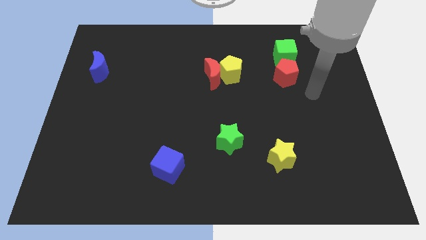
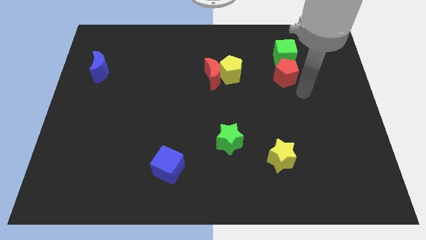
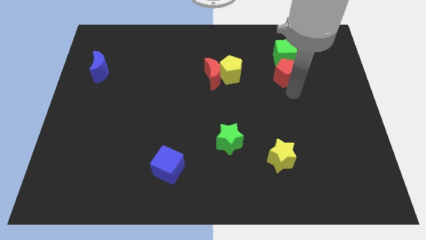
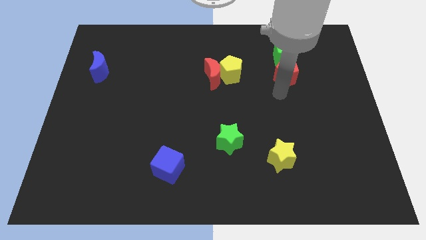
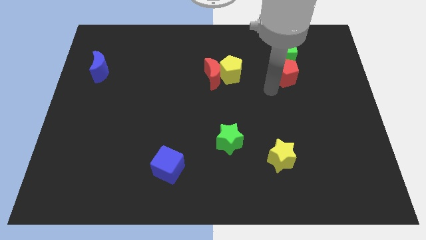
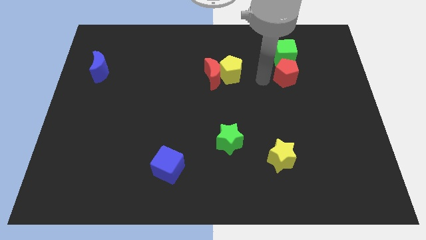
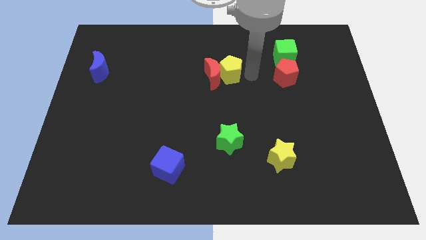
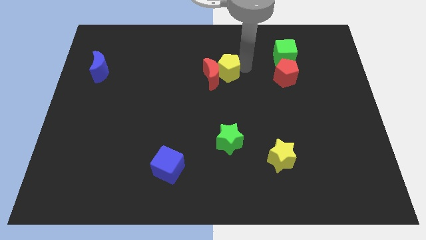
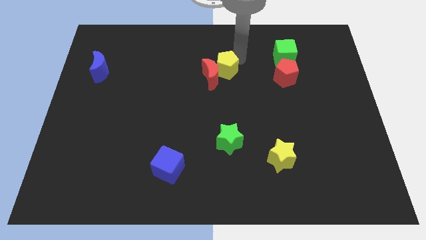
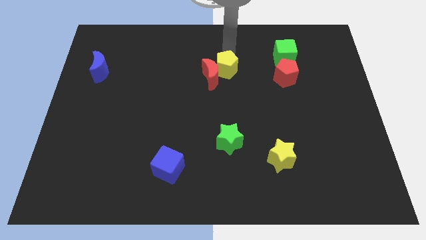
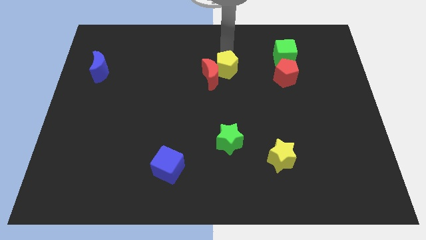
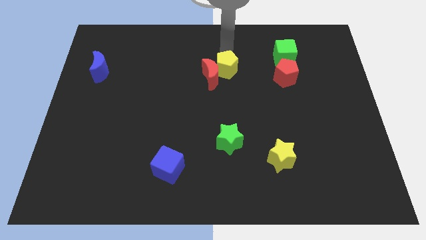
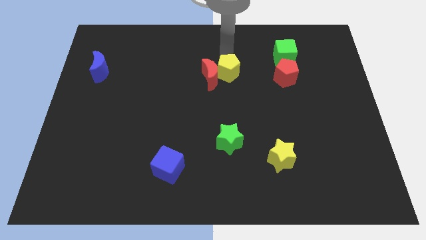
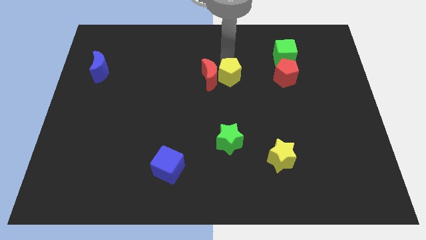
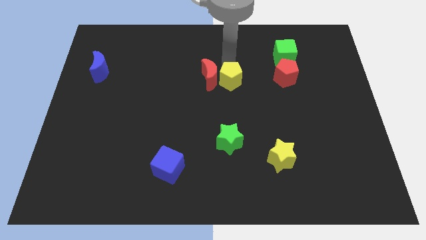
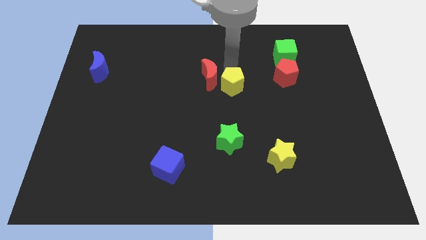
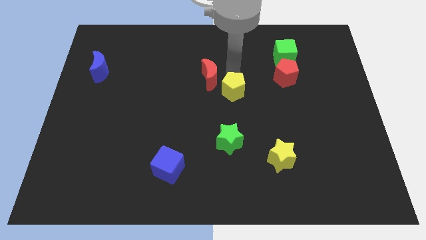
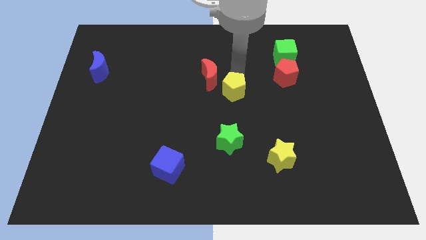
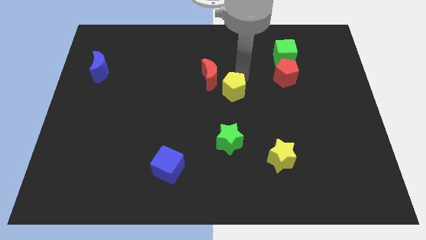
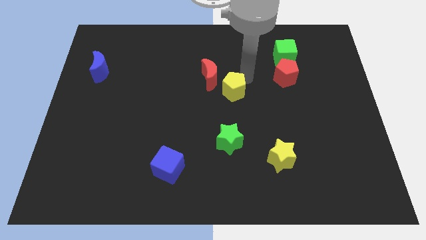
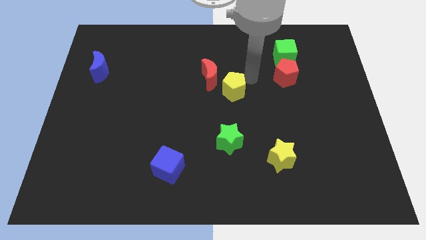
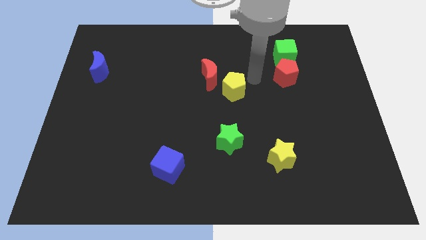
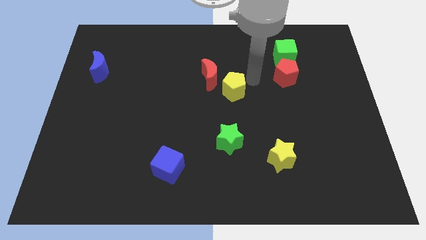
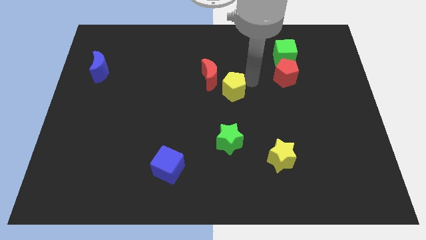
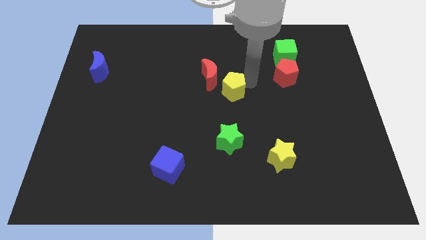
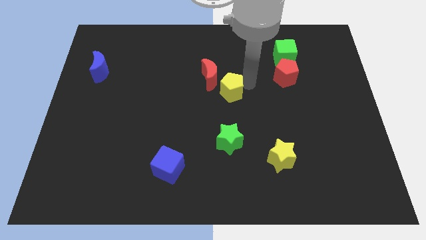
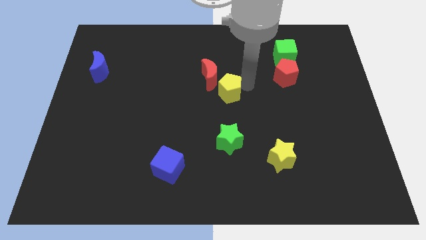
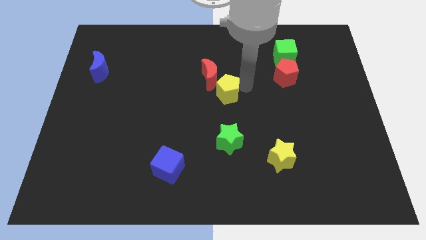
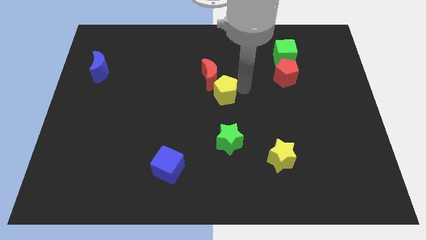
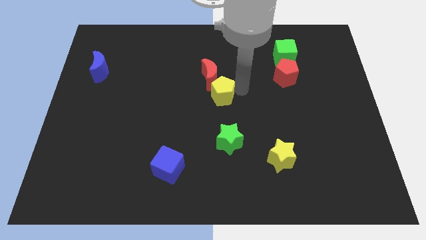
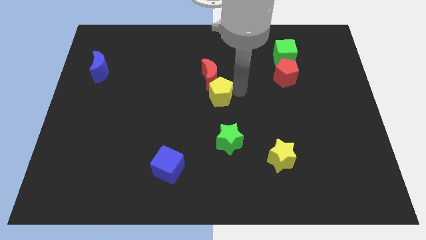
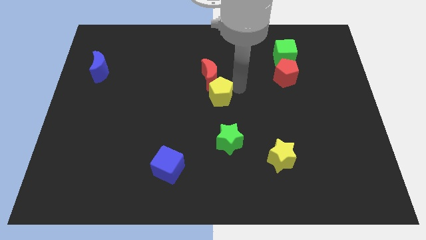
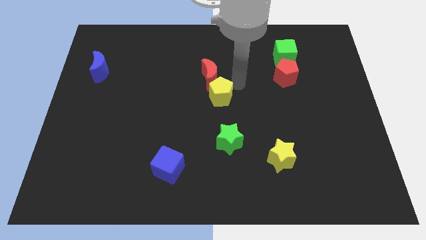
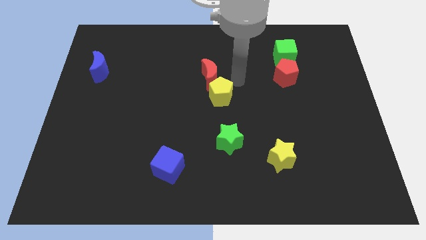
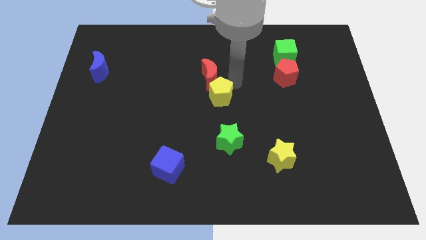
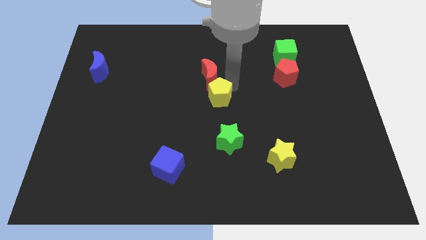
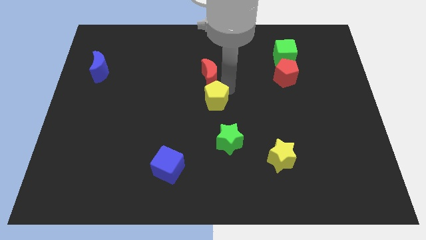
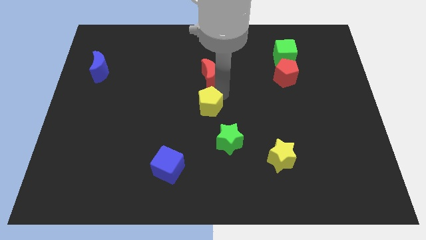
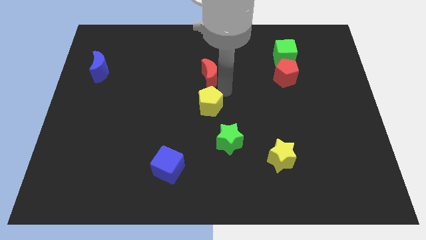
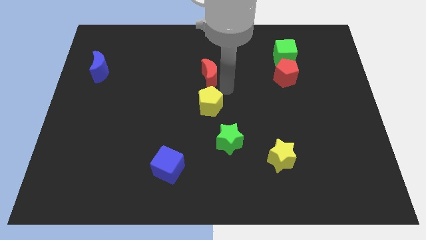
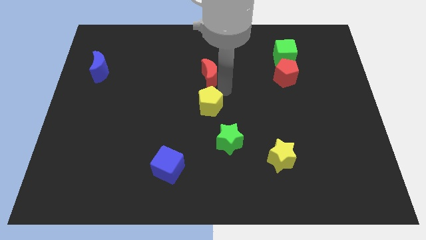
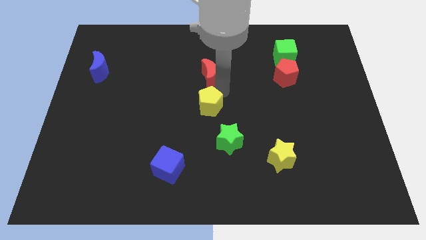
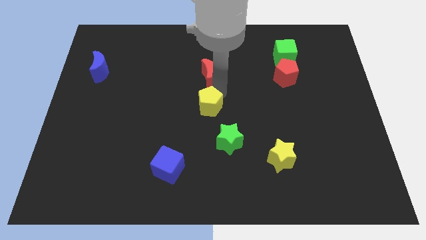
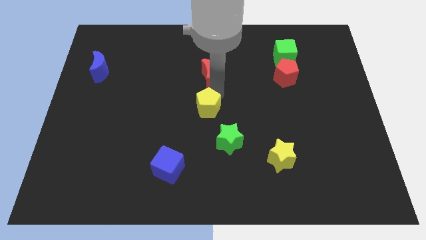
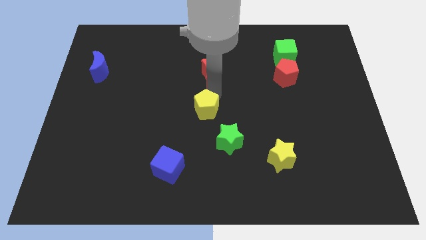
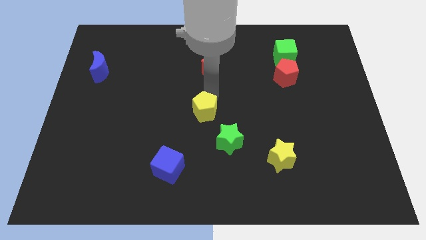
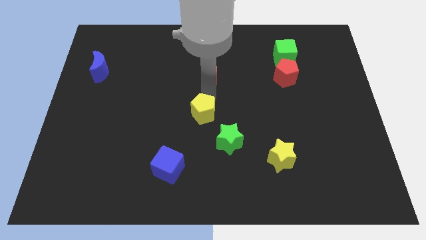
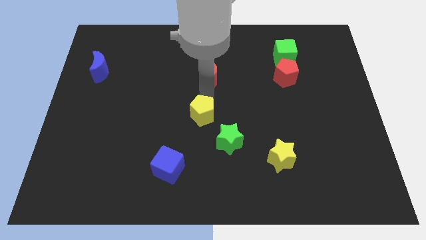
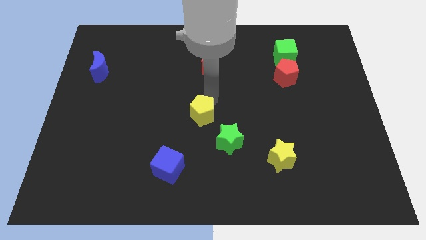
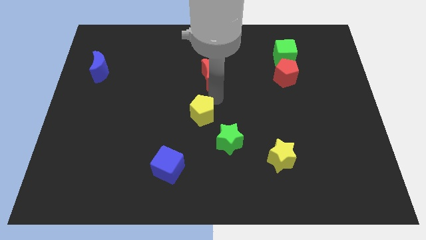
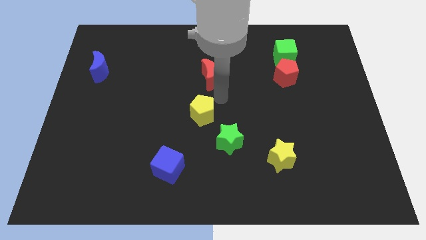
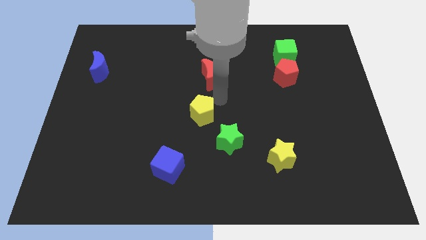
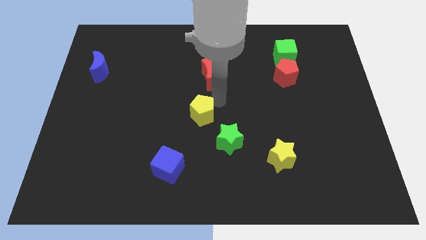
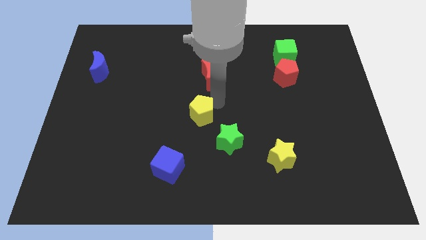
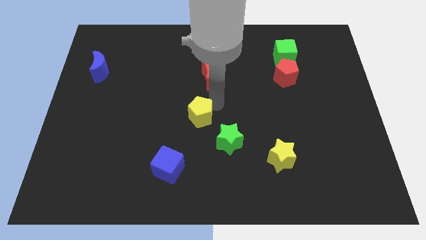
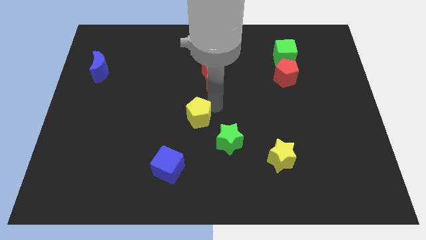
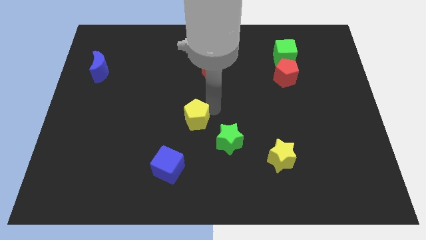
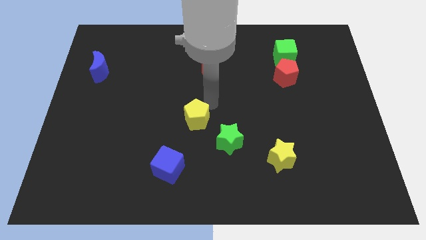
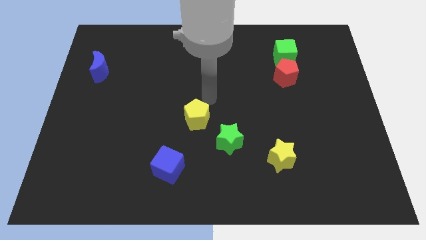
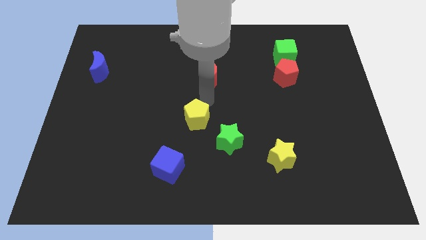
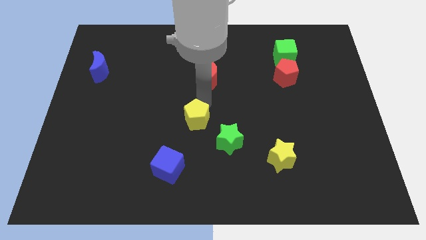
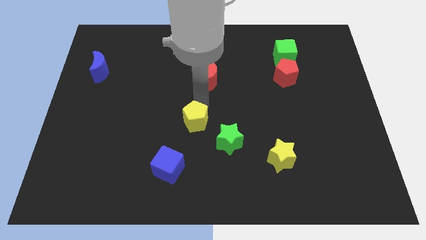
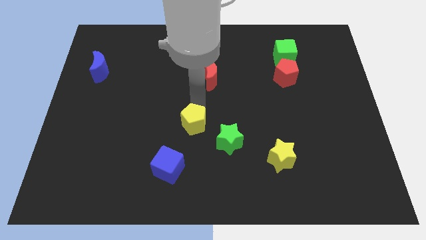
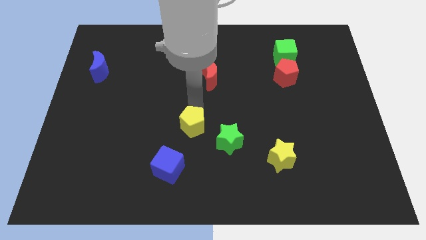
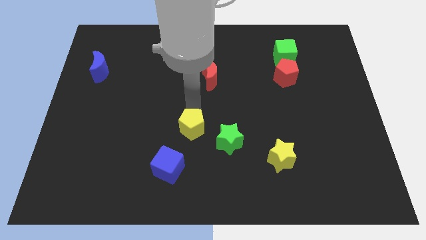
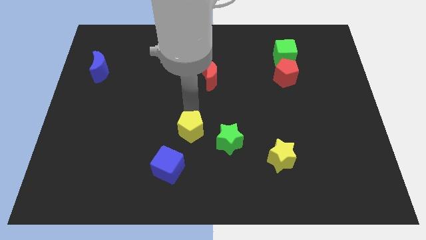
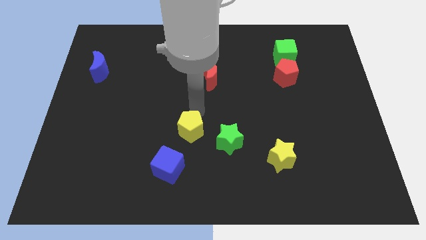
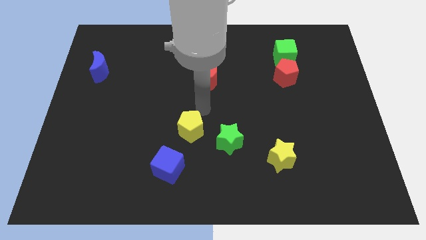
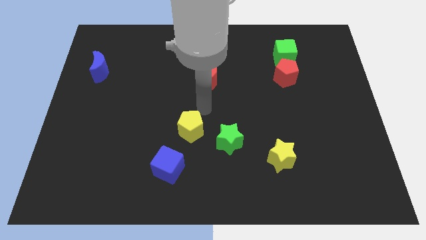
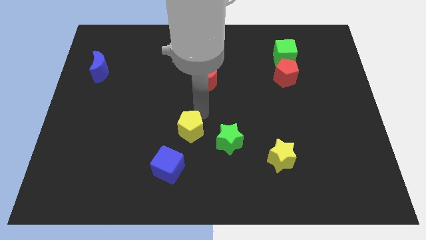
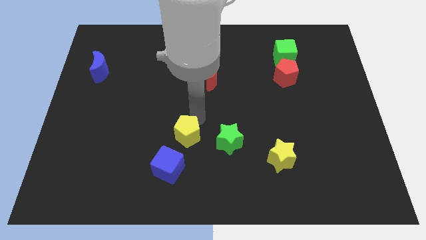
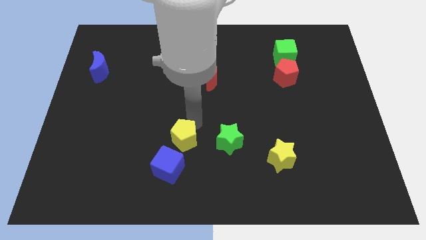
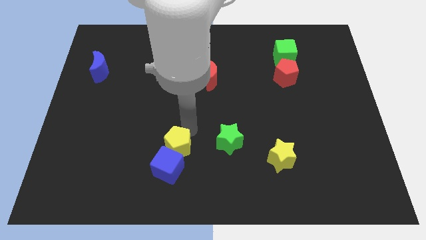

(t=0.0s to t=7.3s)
push the yellow pentagon next to the blue cube
